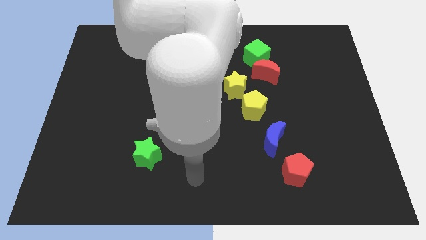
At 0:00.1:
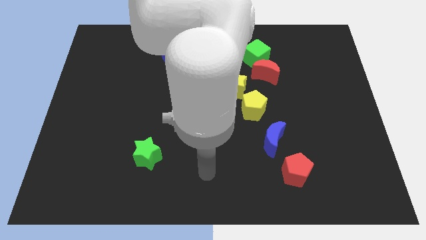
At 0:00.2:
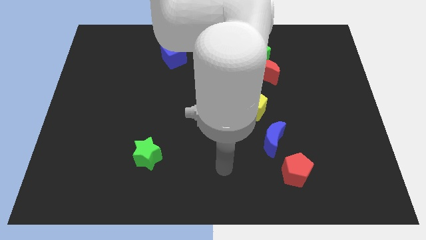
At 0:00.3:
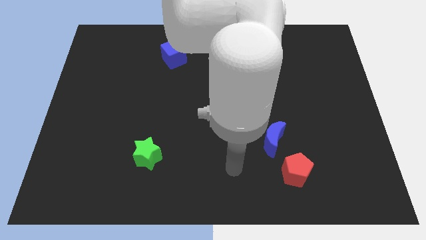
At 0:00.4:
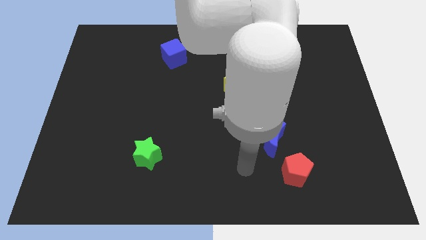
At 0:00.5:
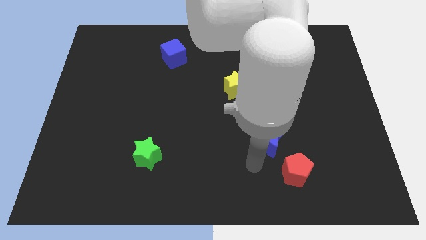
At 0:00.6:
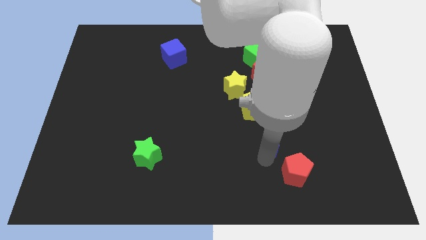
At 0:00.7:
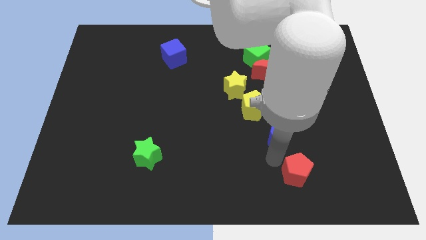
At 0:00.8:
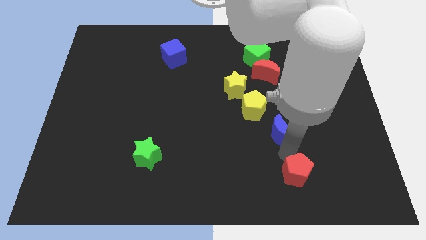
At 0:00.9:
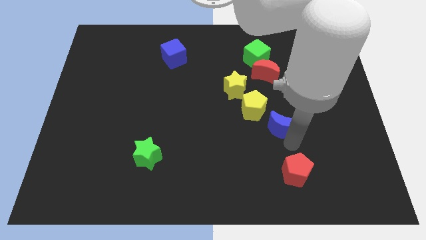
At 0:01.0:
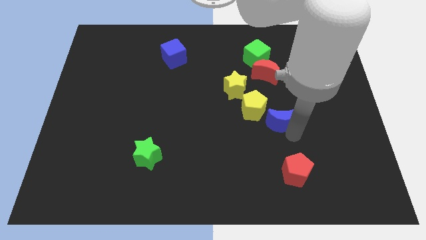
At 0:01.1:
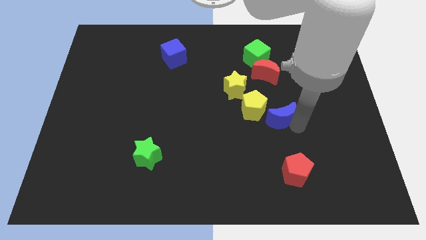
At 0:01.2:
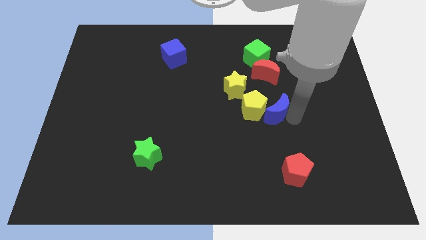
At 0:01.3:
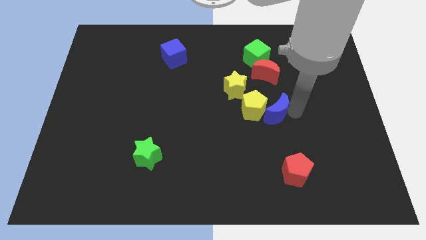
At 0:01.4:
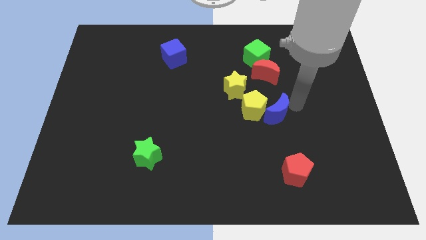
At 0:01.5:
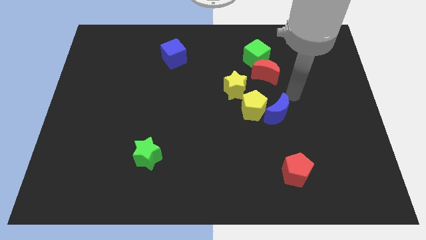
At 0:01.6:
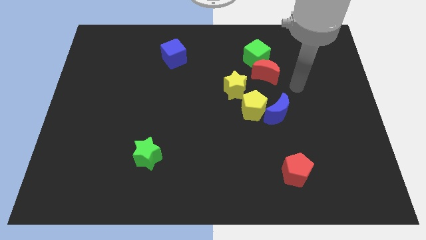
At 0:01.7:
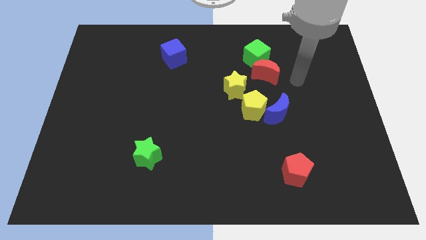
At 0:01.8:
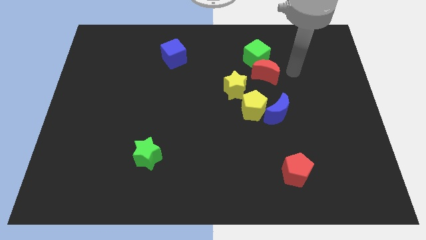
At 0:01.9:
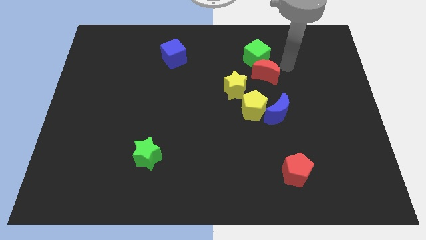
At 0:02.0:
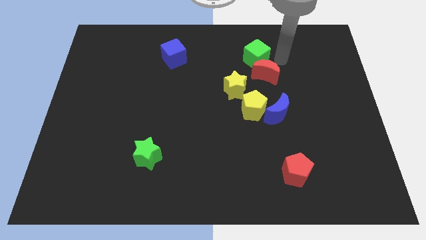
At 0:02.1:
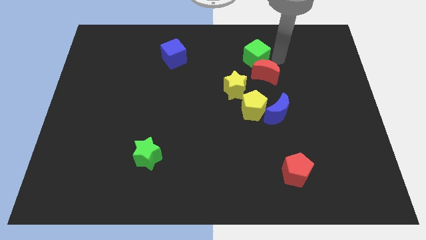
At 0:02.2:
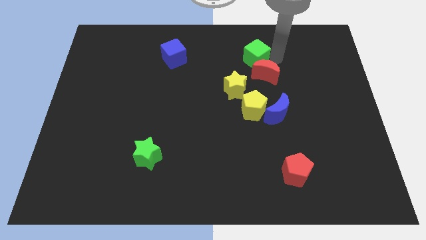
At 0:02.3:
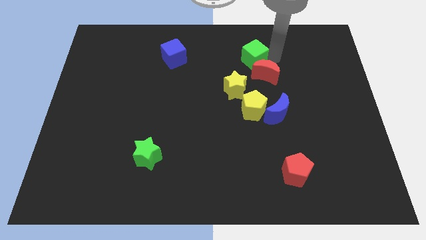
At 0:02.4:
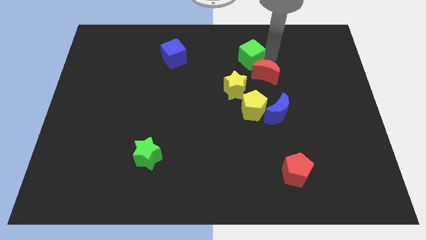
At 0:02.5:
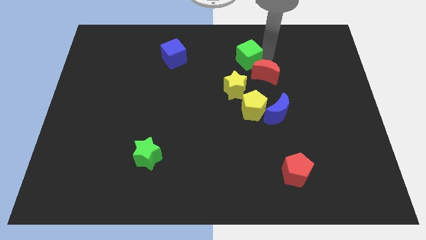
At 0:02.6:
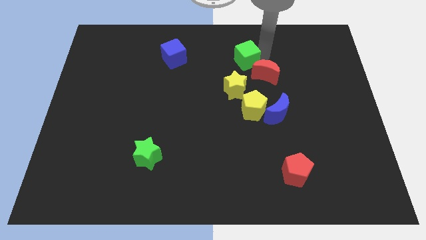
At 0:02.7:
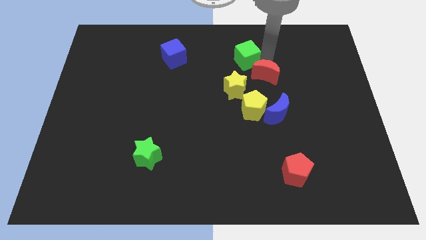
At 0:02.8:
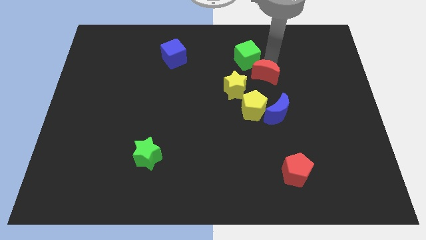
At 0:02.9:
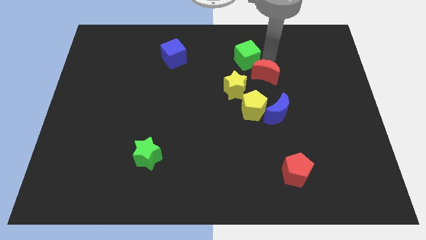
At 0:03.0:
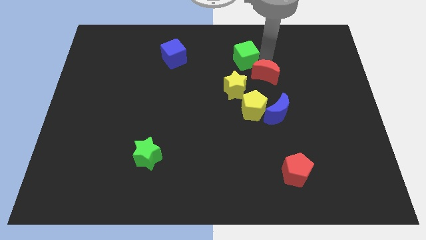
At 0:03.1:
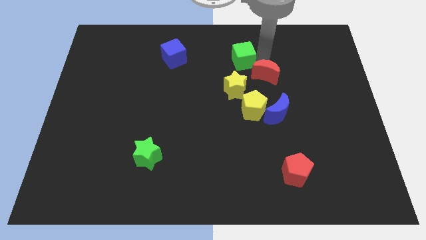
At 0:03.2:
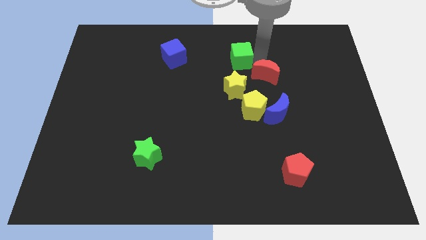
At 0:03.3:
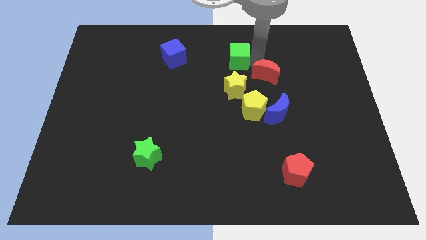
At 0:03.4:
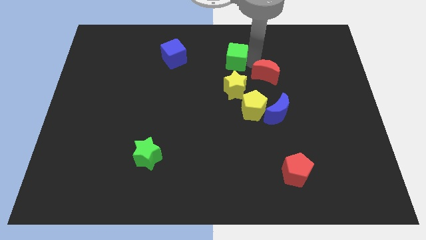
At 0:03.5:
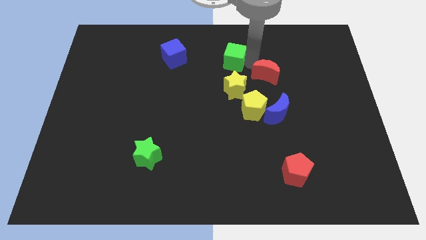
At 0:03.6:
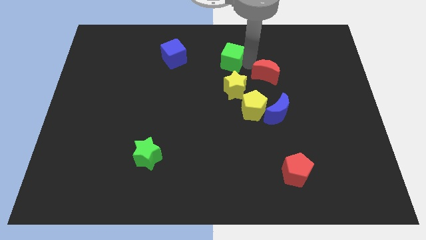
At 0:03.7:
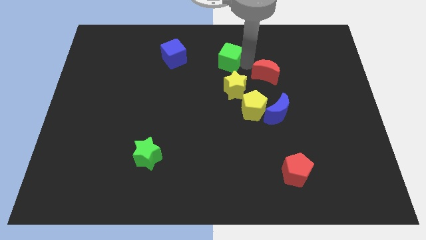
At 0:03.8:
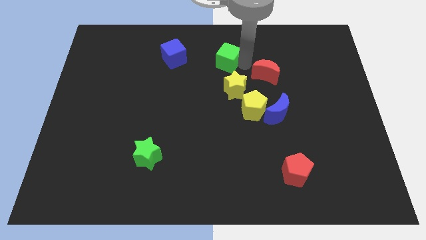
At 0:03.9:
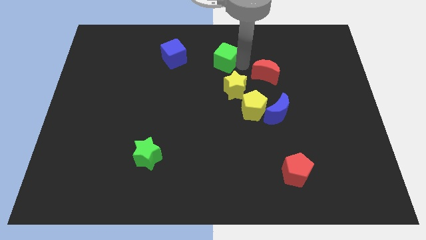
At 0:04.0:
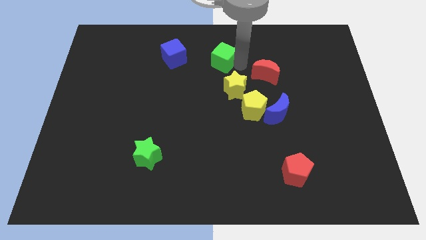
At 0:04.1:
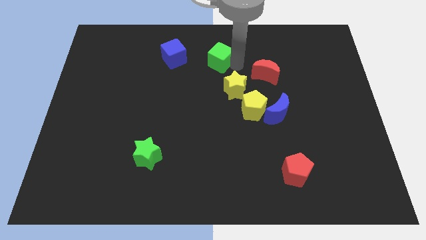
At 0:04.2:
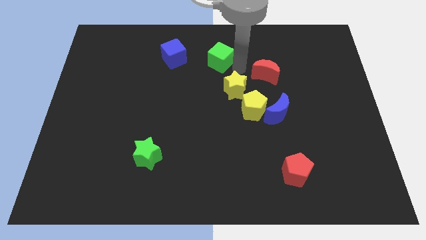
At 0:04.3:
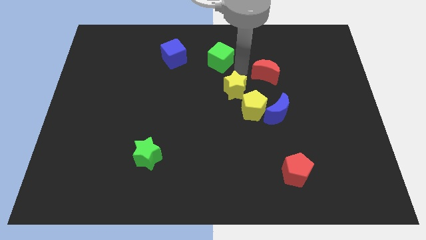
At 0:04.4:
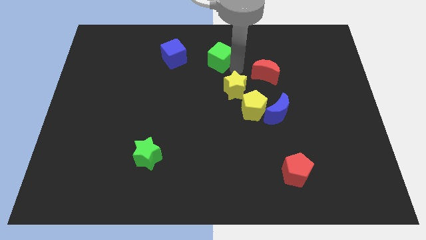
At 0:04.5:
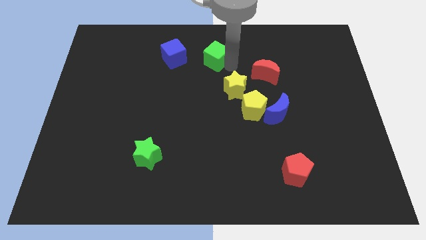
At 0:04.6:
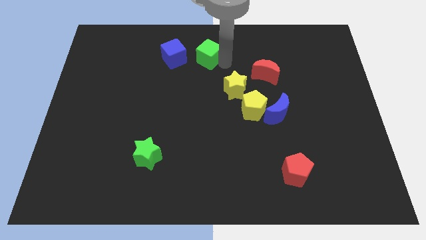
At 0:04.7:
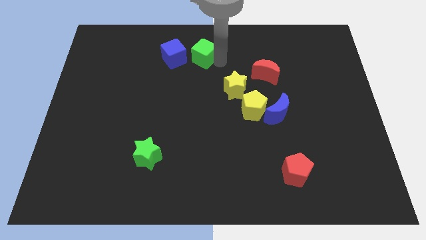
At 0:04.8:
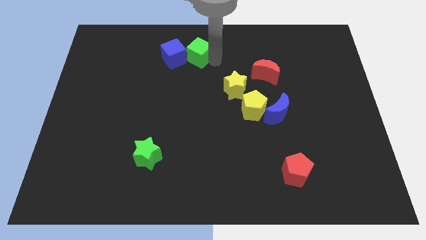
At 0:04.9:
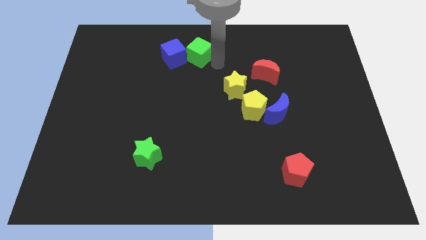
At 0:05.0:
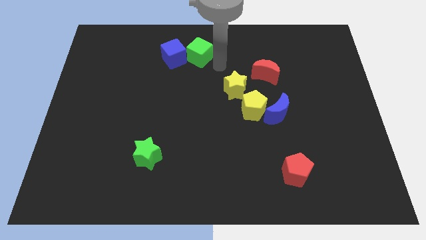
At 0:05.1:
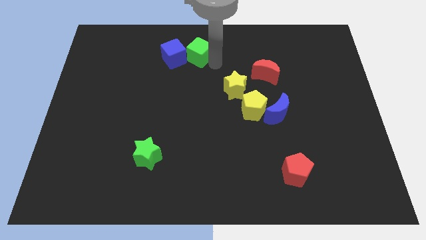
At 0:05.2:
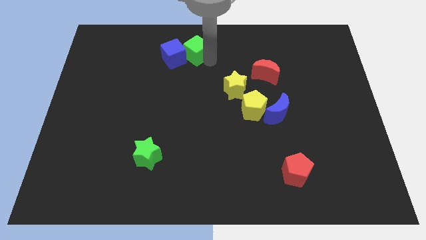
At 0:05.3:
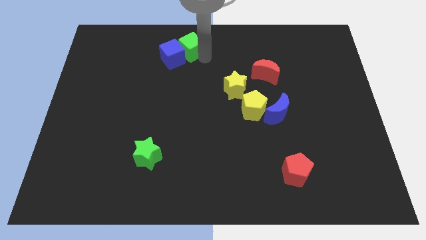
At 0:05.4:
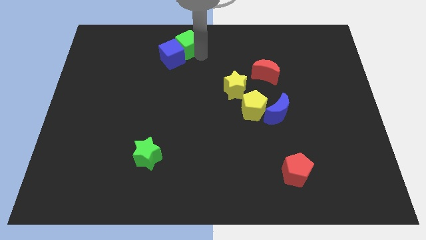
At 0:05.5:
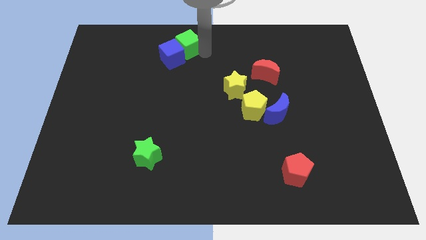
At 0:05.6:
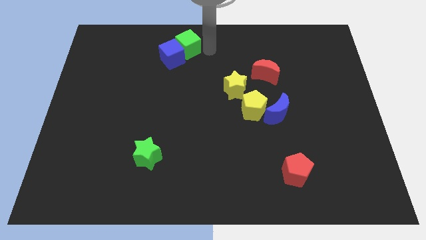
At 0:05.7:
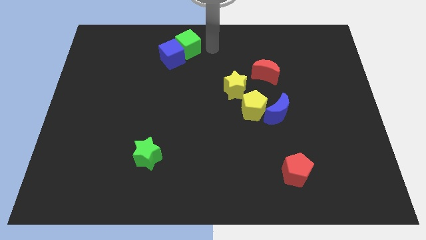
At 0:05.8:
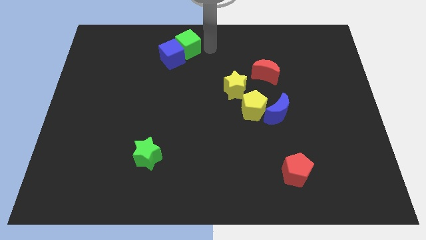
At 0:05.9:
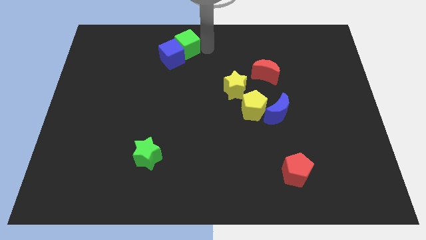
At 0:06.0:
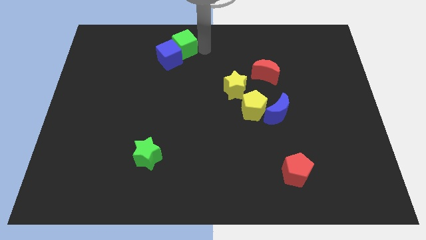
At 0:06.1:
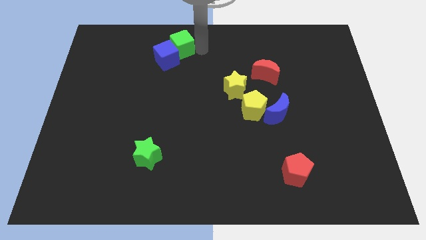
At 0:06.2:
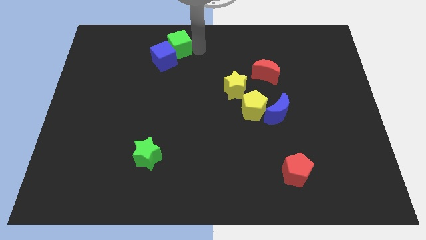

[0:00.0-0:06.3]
slide the green cube to the left

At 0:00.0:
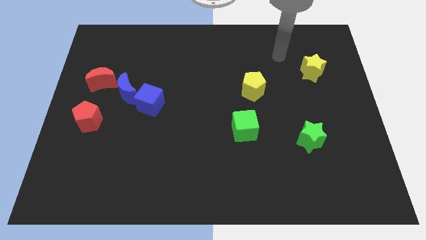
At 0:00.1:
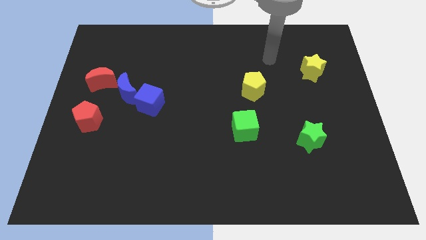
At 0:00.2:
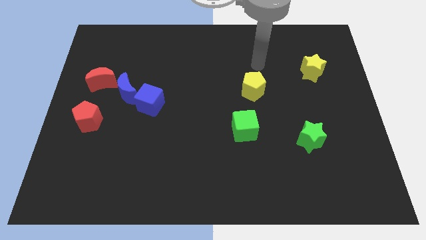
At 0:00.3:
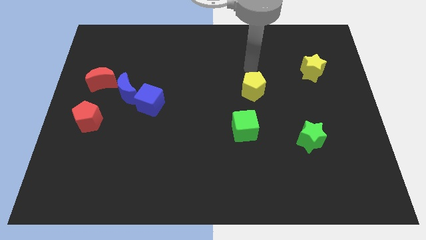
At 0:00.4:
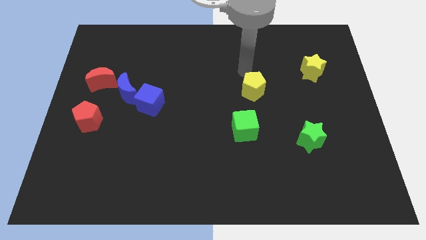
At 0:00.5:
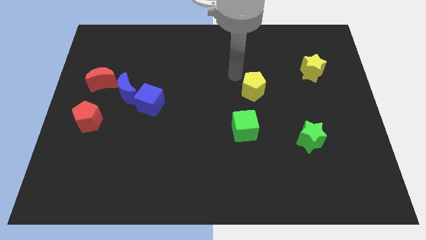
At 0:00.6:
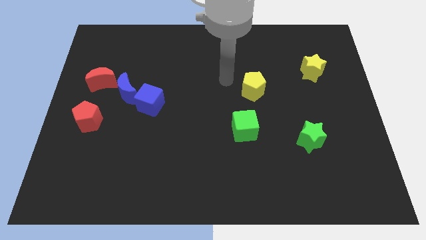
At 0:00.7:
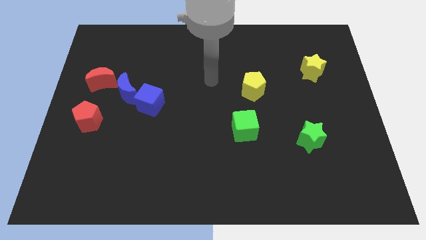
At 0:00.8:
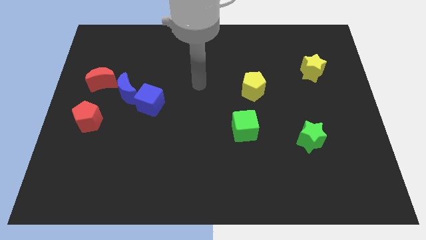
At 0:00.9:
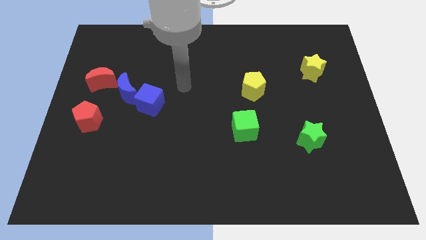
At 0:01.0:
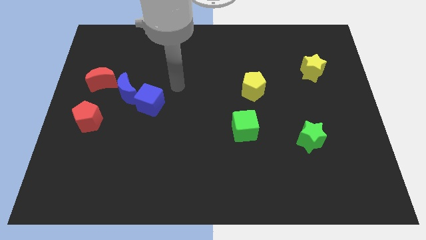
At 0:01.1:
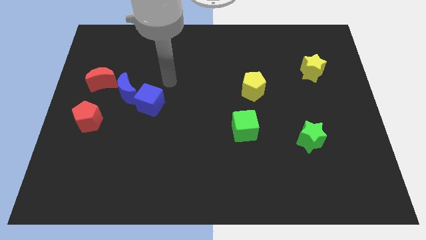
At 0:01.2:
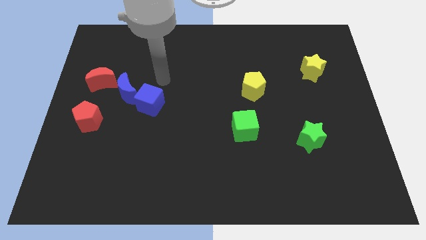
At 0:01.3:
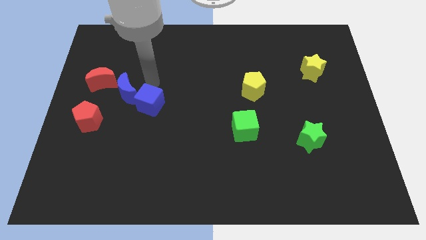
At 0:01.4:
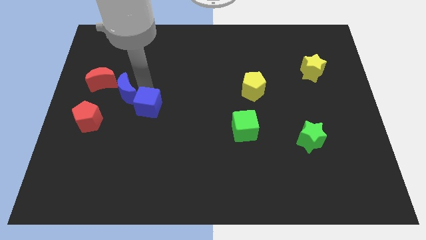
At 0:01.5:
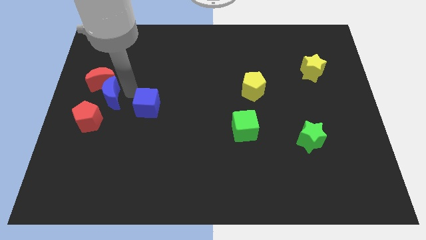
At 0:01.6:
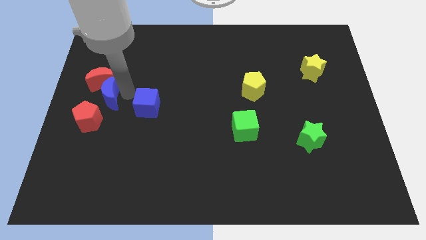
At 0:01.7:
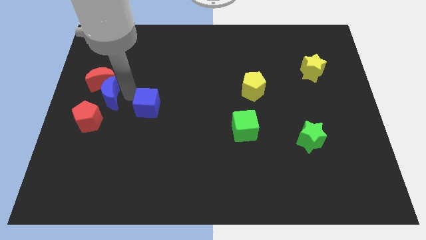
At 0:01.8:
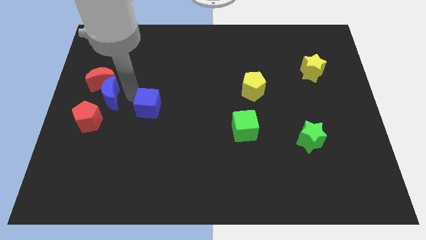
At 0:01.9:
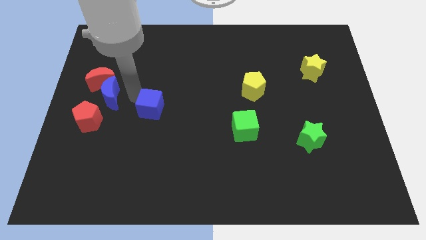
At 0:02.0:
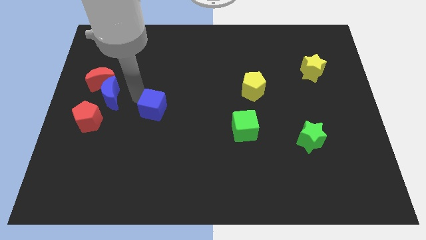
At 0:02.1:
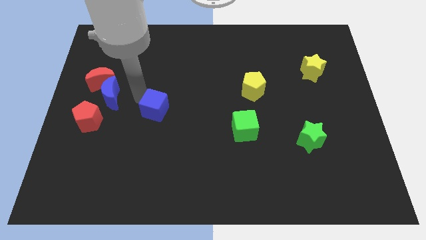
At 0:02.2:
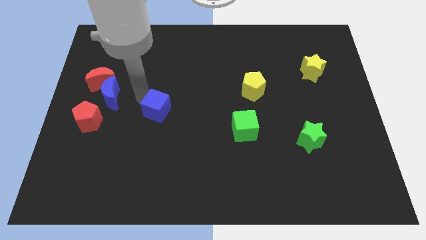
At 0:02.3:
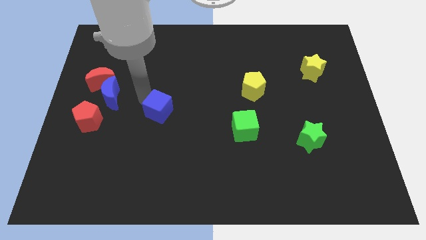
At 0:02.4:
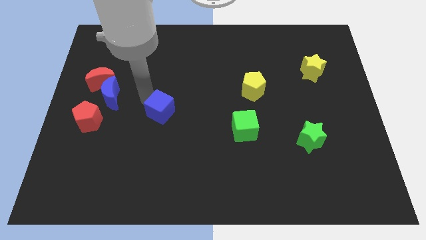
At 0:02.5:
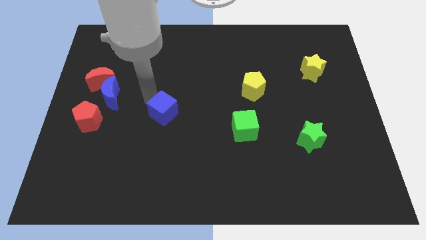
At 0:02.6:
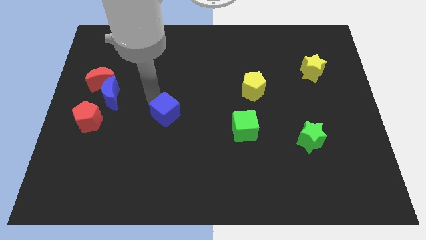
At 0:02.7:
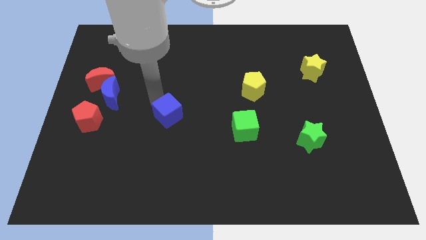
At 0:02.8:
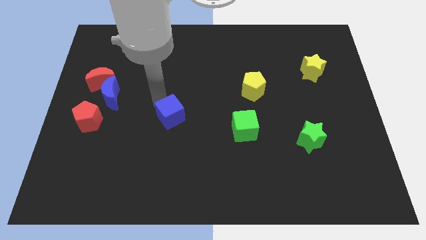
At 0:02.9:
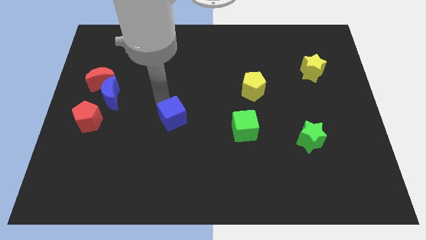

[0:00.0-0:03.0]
slightly move the blue cube downwards and then to the right
